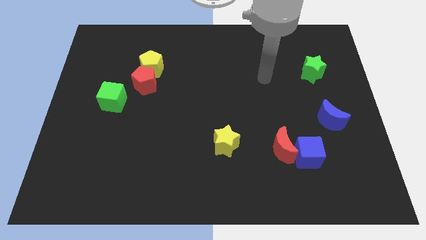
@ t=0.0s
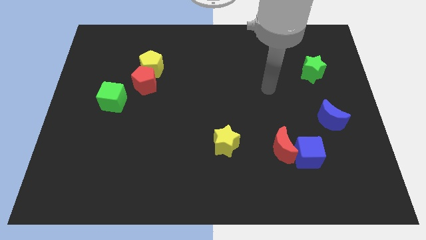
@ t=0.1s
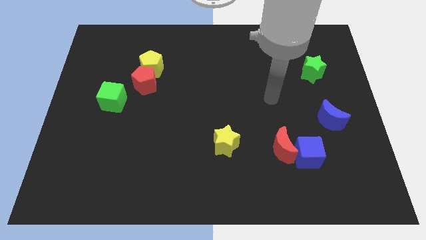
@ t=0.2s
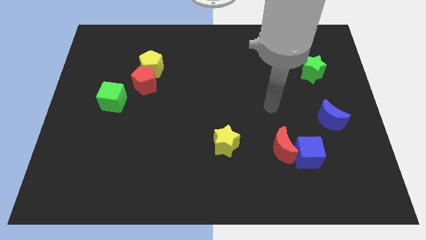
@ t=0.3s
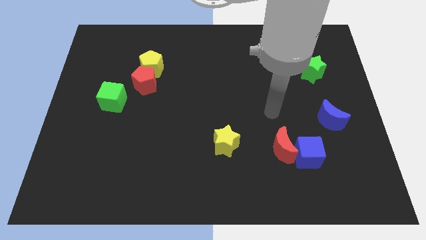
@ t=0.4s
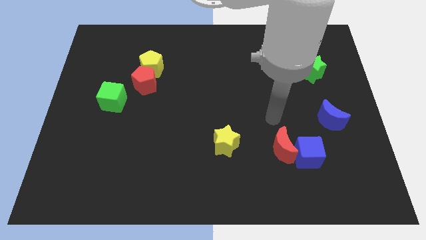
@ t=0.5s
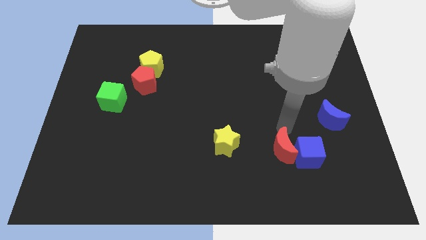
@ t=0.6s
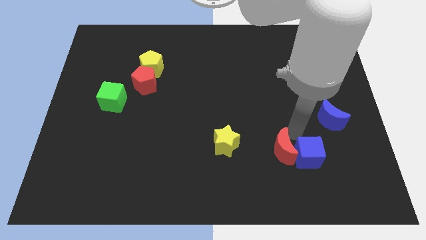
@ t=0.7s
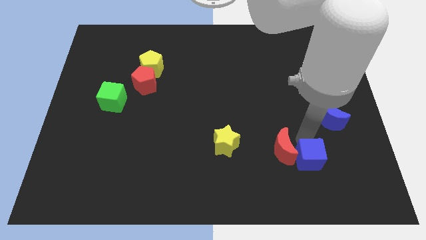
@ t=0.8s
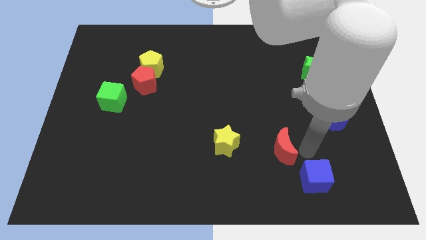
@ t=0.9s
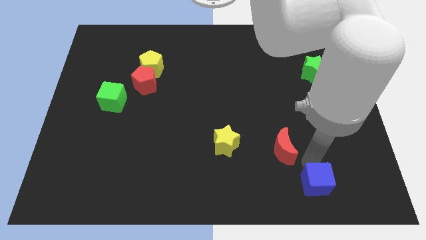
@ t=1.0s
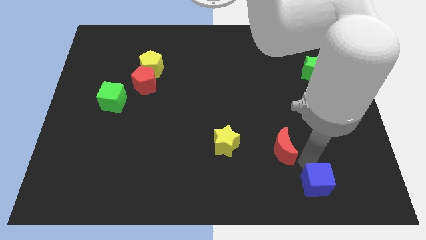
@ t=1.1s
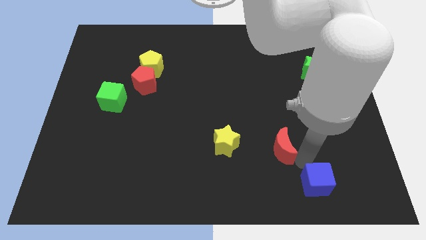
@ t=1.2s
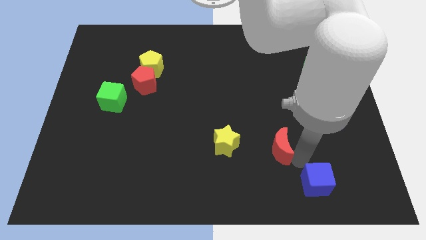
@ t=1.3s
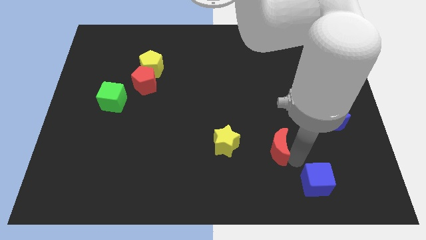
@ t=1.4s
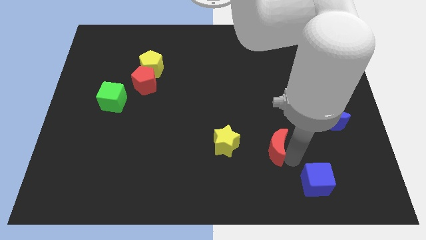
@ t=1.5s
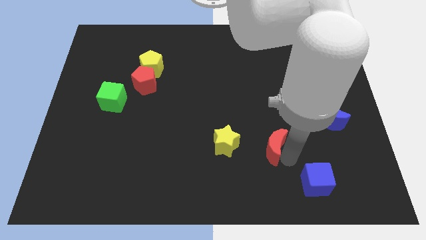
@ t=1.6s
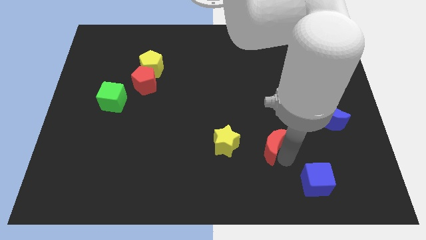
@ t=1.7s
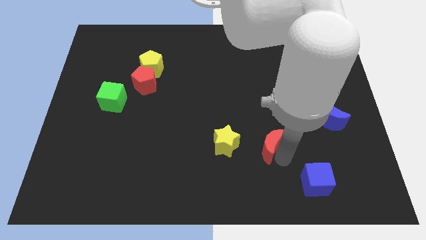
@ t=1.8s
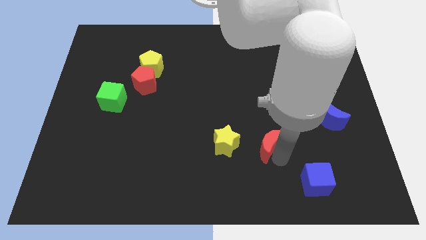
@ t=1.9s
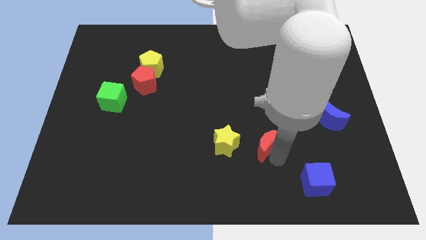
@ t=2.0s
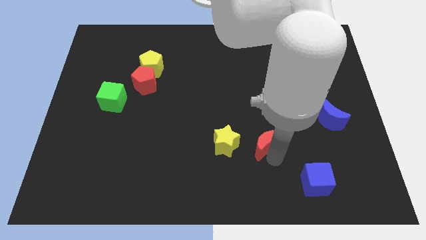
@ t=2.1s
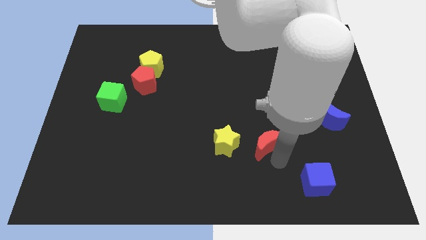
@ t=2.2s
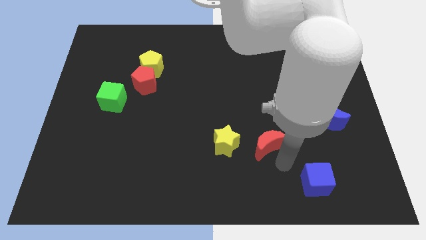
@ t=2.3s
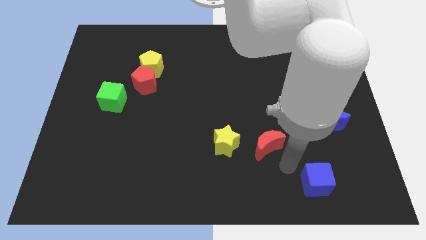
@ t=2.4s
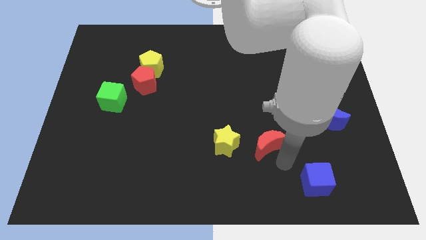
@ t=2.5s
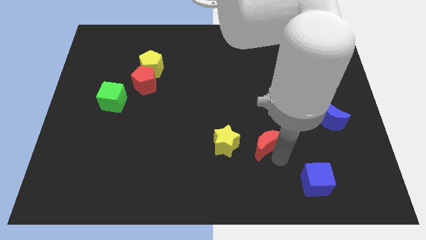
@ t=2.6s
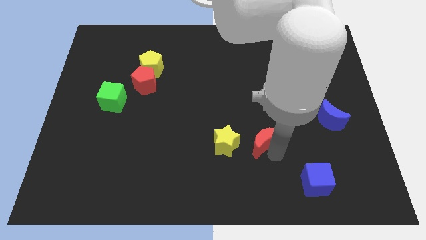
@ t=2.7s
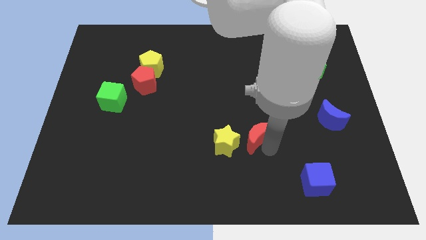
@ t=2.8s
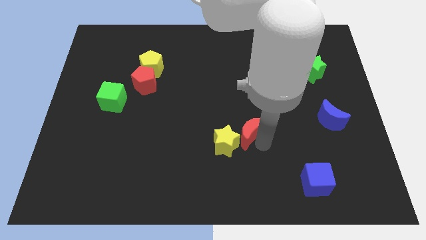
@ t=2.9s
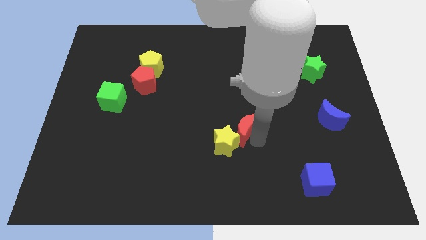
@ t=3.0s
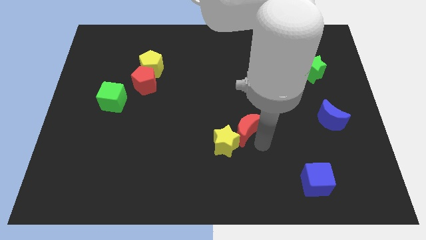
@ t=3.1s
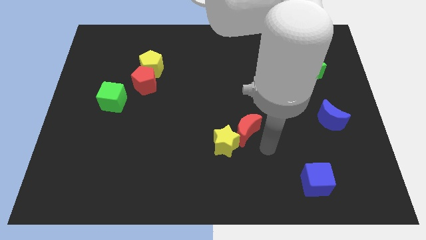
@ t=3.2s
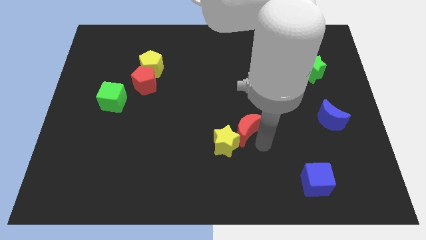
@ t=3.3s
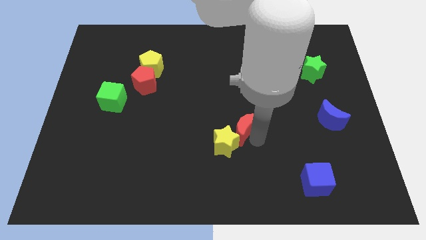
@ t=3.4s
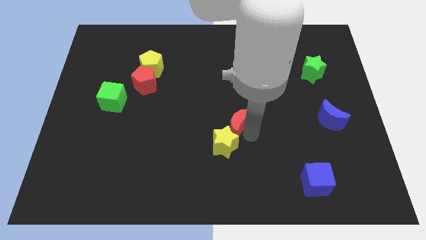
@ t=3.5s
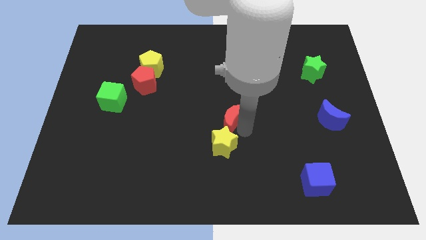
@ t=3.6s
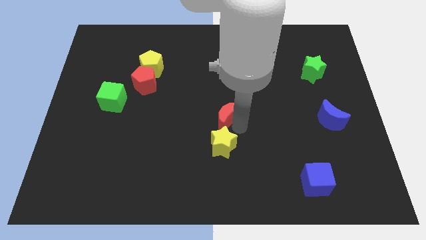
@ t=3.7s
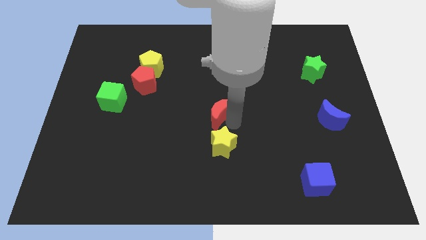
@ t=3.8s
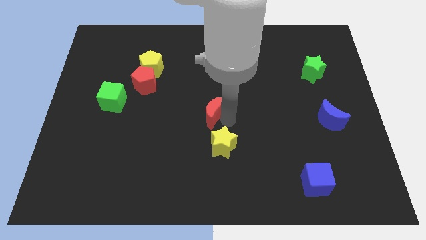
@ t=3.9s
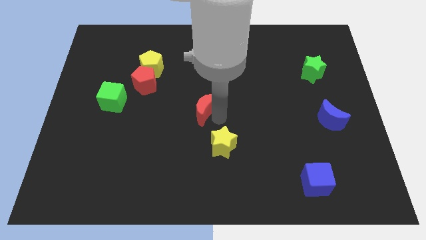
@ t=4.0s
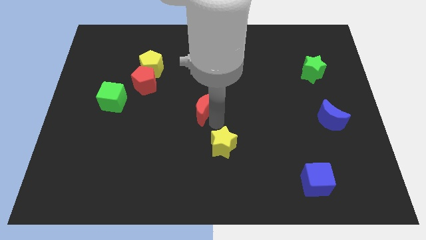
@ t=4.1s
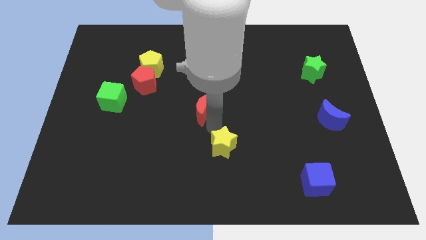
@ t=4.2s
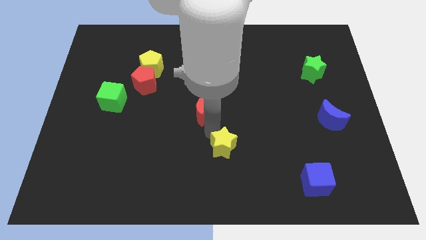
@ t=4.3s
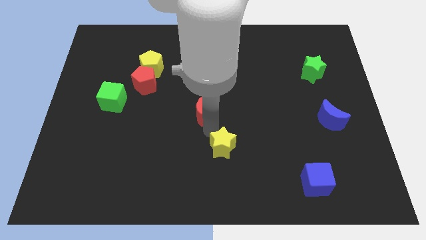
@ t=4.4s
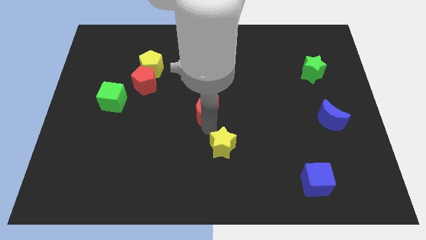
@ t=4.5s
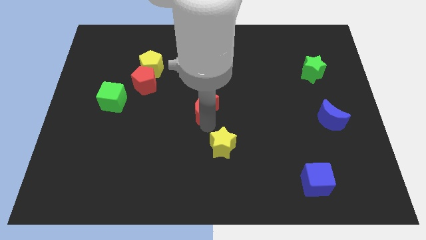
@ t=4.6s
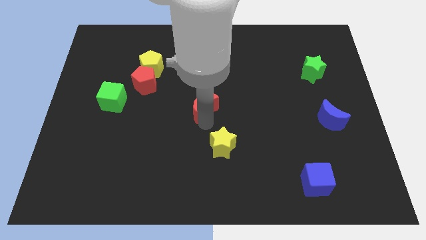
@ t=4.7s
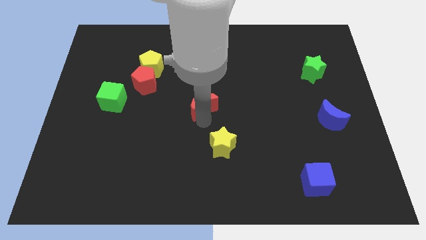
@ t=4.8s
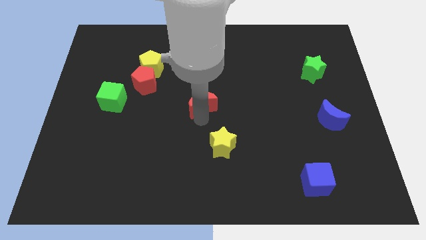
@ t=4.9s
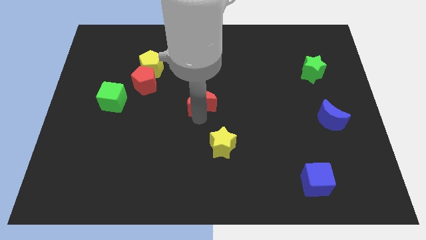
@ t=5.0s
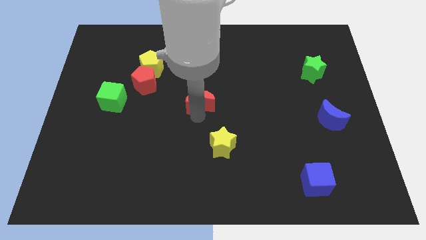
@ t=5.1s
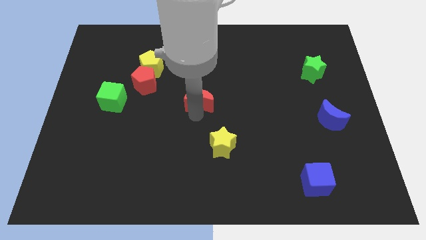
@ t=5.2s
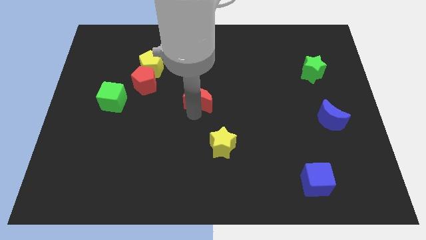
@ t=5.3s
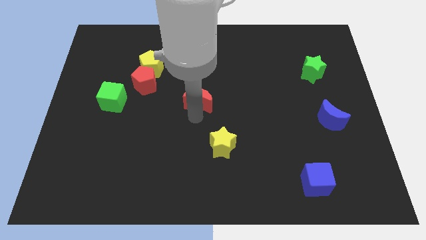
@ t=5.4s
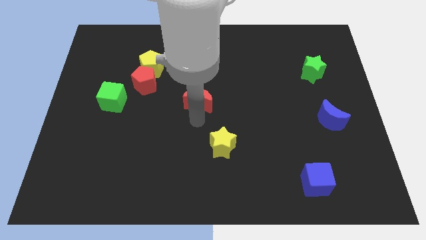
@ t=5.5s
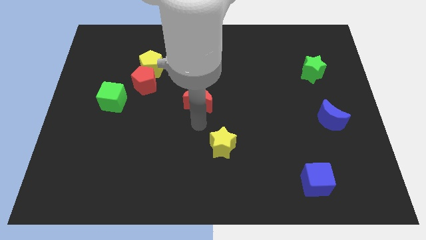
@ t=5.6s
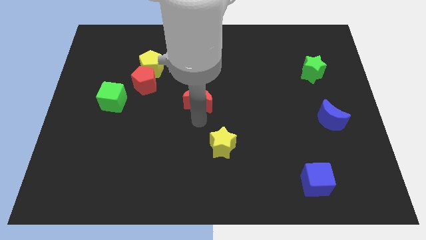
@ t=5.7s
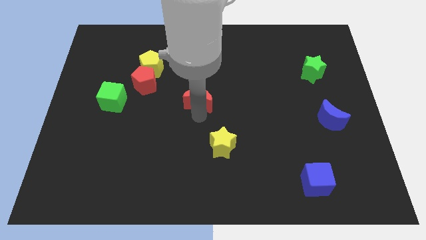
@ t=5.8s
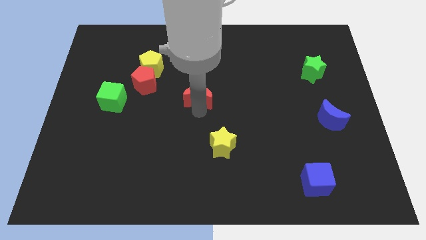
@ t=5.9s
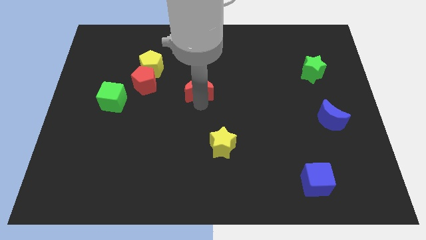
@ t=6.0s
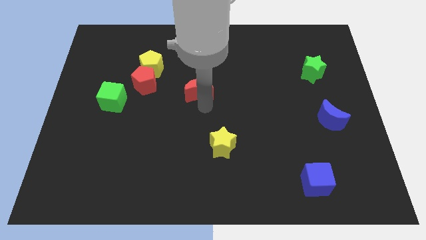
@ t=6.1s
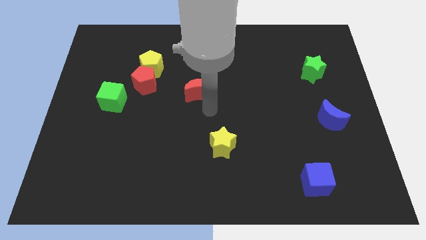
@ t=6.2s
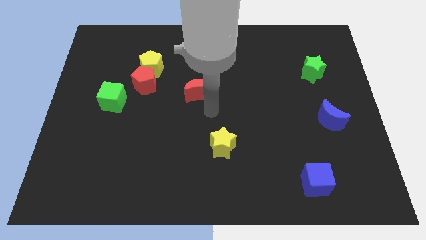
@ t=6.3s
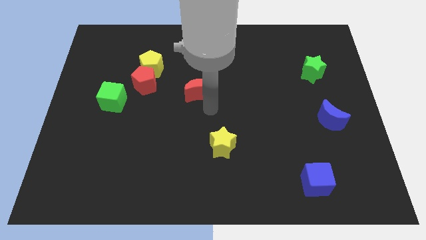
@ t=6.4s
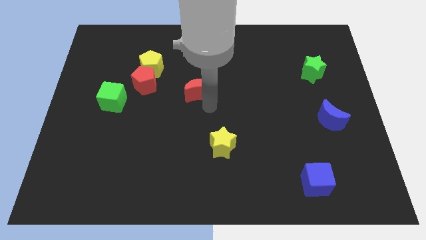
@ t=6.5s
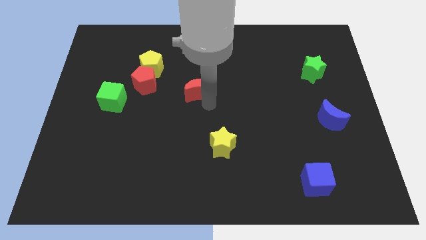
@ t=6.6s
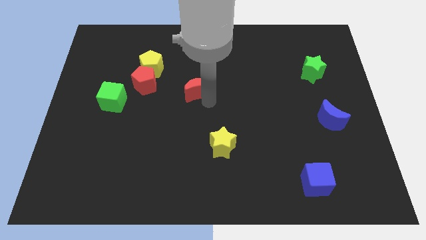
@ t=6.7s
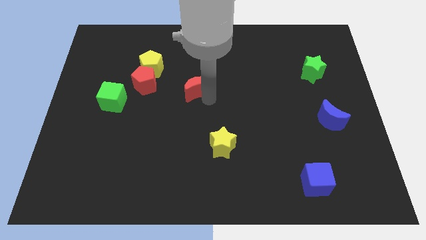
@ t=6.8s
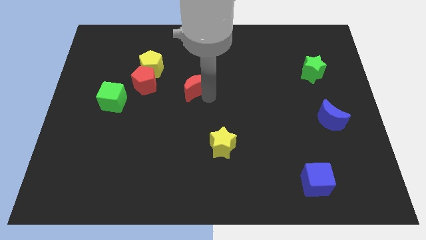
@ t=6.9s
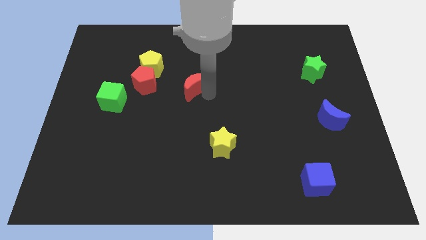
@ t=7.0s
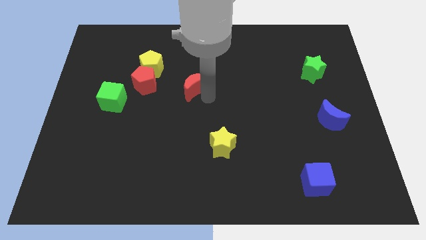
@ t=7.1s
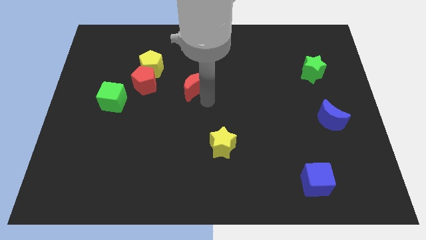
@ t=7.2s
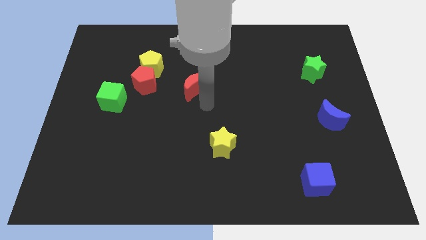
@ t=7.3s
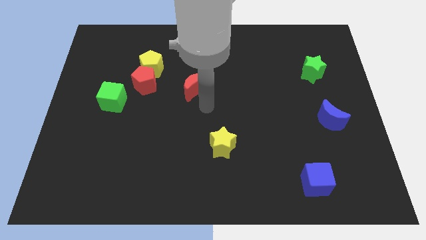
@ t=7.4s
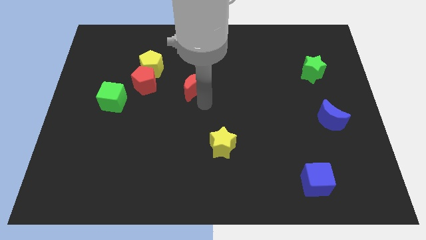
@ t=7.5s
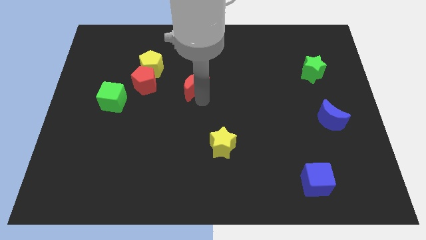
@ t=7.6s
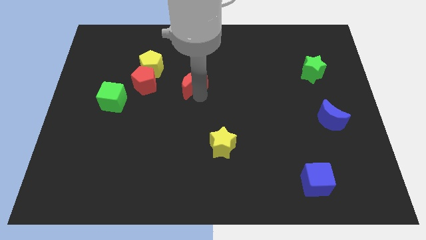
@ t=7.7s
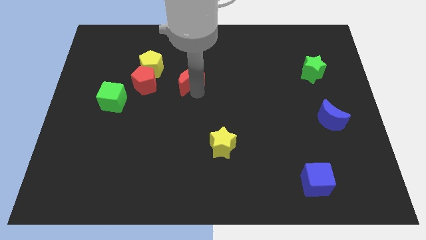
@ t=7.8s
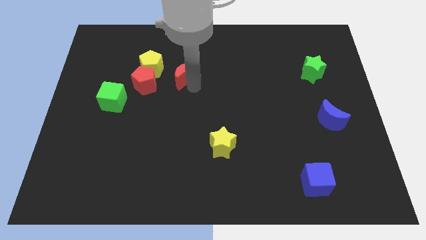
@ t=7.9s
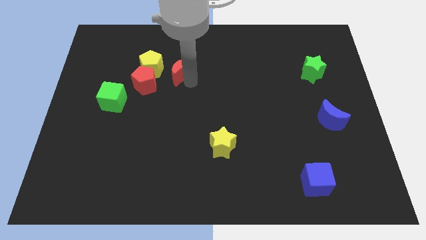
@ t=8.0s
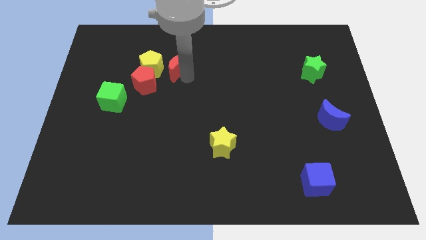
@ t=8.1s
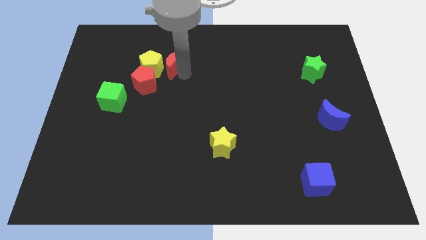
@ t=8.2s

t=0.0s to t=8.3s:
move the red moon close to the yellow pentagon
